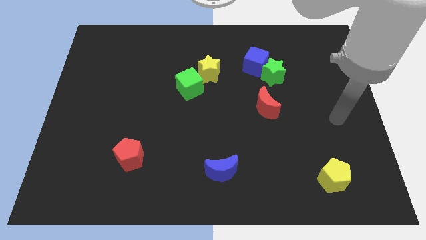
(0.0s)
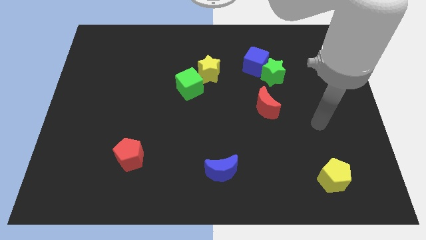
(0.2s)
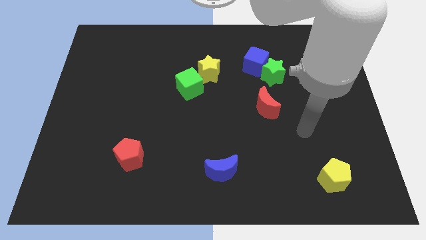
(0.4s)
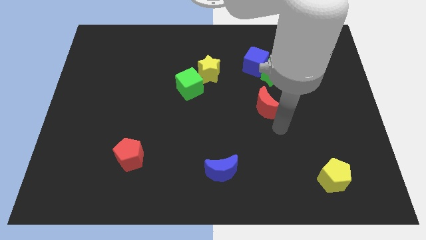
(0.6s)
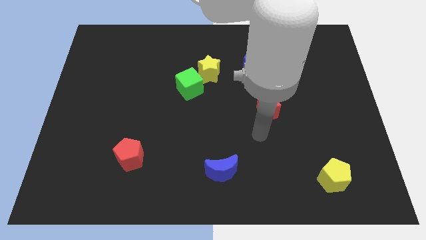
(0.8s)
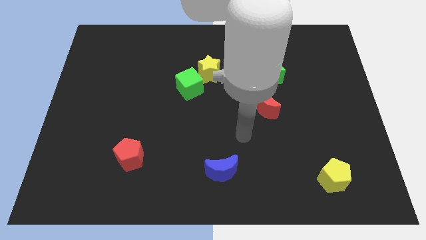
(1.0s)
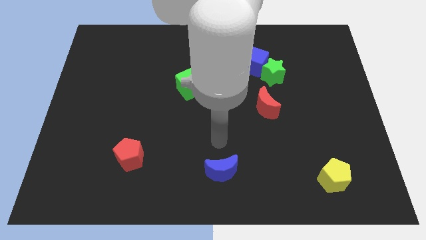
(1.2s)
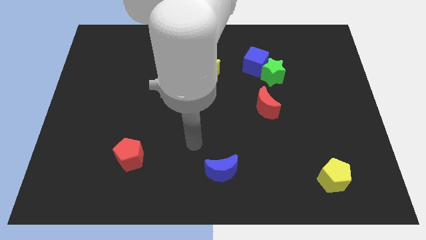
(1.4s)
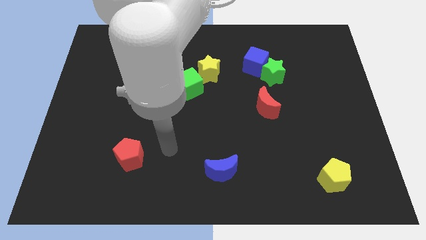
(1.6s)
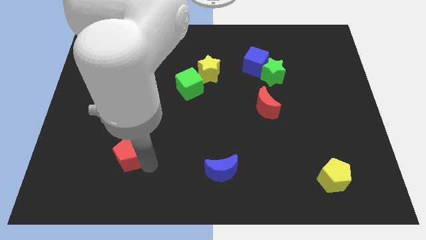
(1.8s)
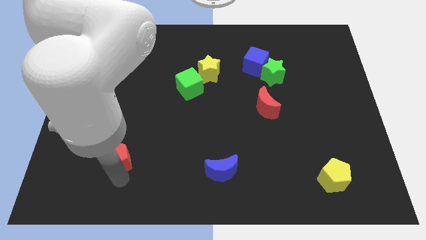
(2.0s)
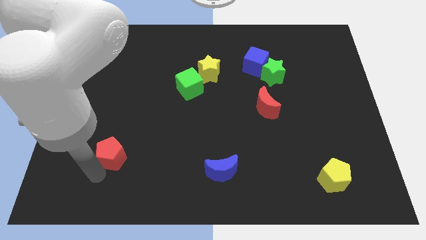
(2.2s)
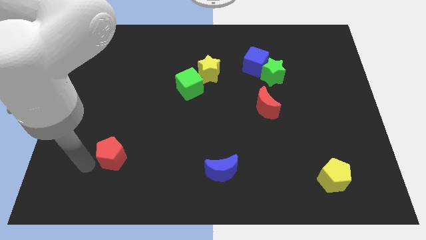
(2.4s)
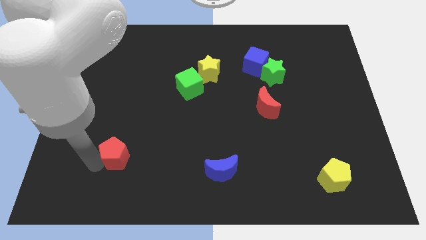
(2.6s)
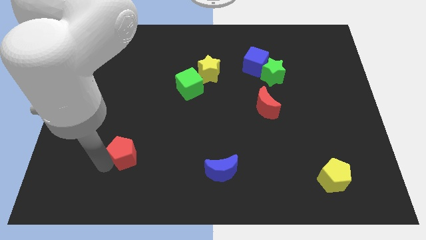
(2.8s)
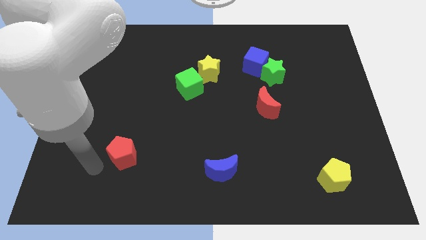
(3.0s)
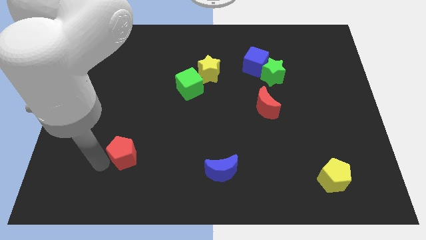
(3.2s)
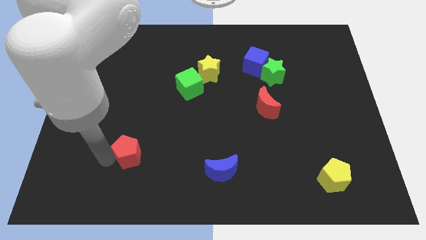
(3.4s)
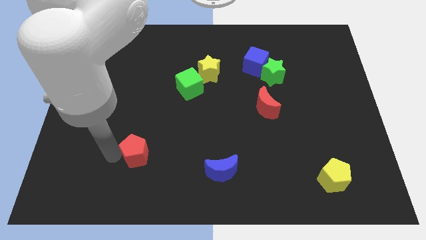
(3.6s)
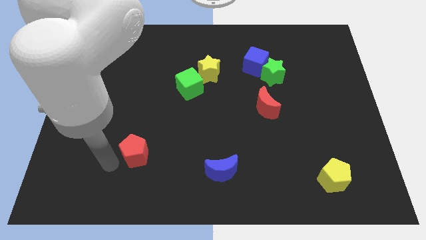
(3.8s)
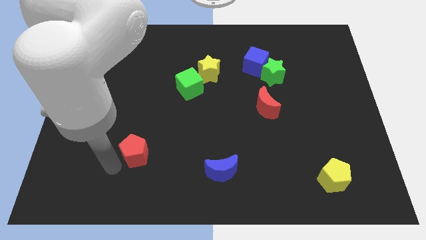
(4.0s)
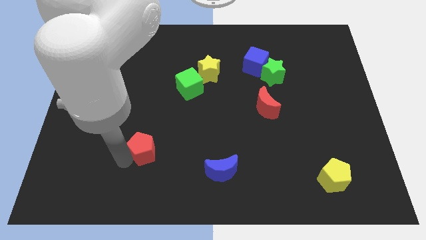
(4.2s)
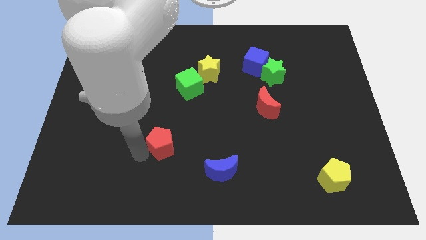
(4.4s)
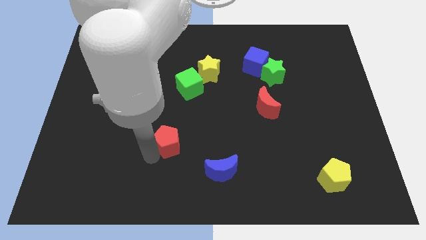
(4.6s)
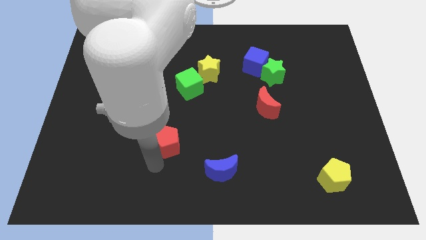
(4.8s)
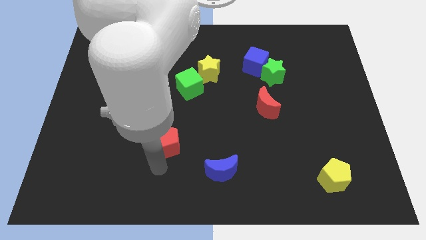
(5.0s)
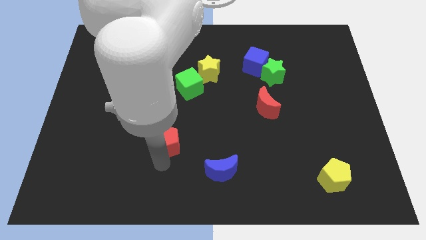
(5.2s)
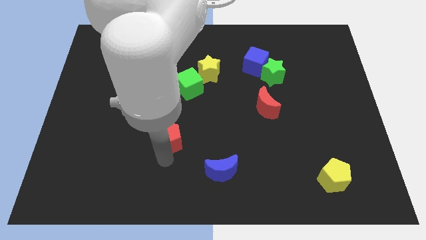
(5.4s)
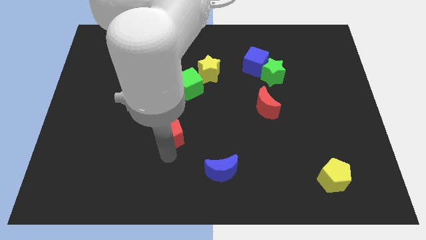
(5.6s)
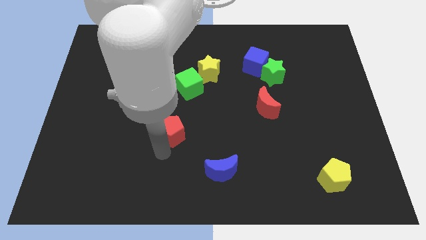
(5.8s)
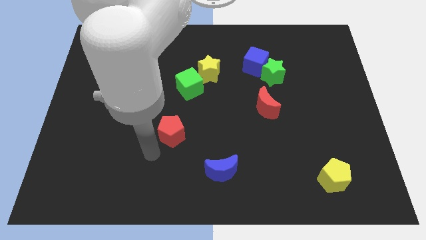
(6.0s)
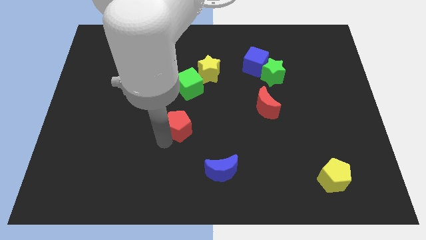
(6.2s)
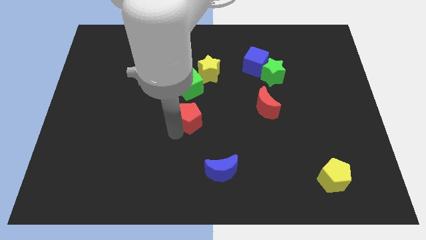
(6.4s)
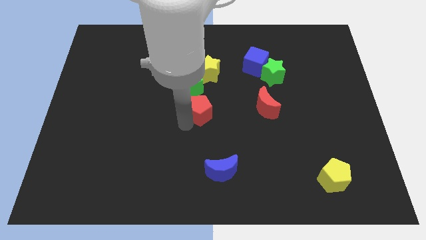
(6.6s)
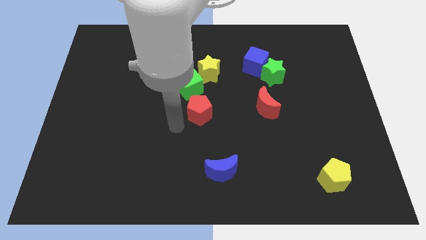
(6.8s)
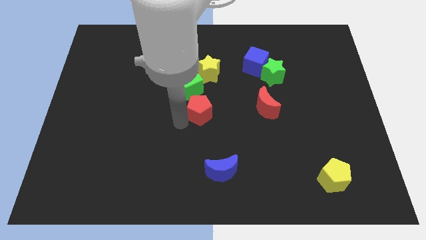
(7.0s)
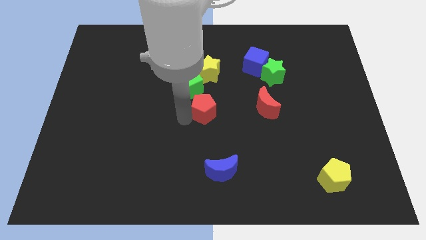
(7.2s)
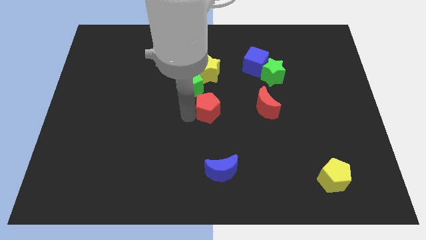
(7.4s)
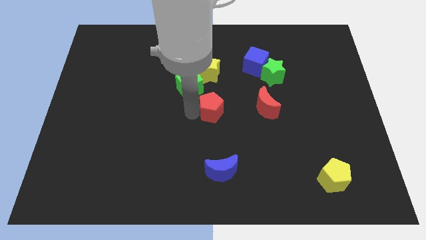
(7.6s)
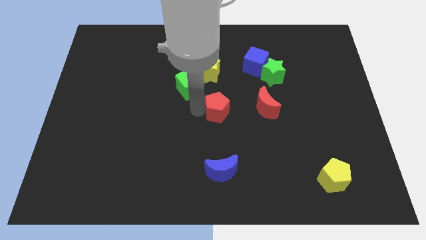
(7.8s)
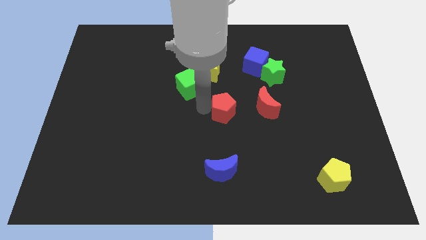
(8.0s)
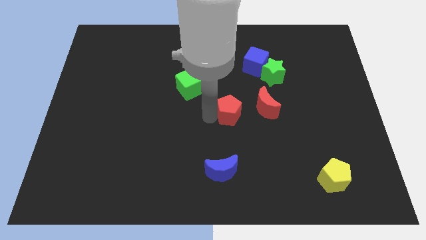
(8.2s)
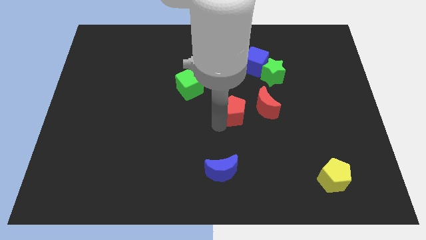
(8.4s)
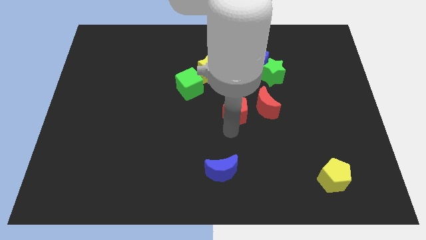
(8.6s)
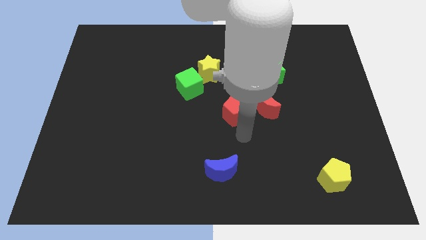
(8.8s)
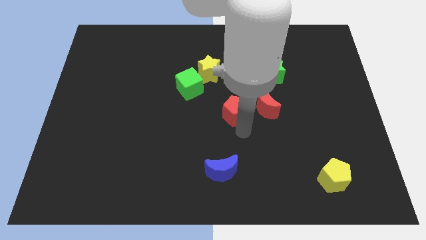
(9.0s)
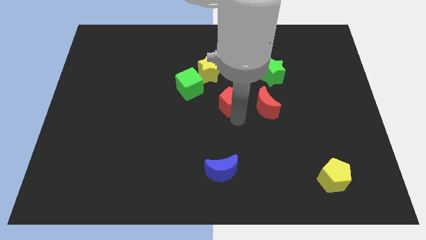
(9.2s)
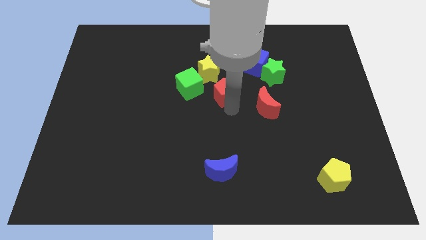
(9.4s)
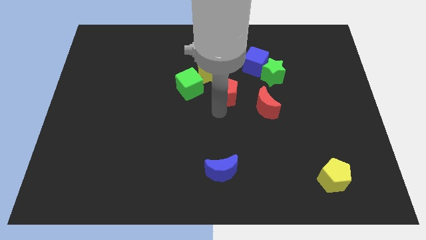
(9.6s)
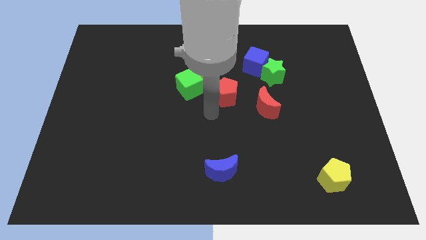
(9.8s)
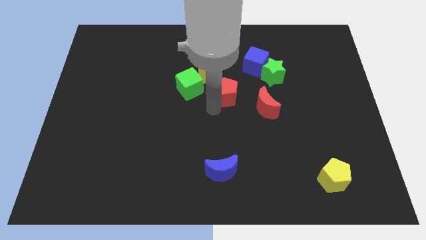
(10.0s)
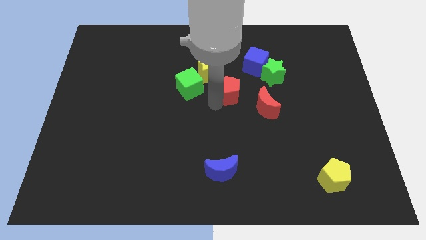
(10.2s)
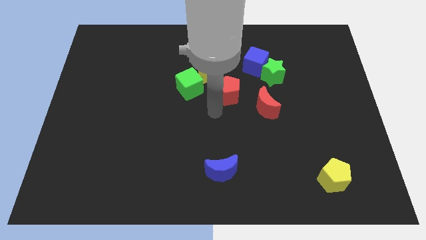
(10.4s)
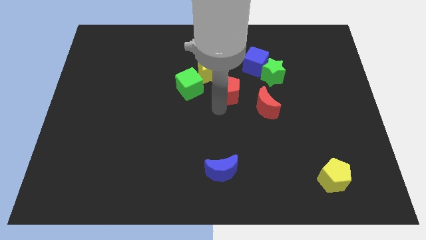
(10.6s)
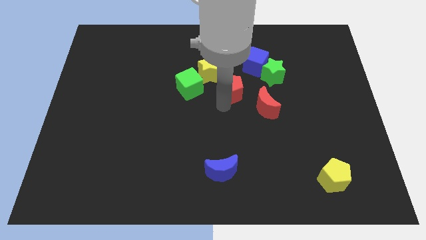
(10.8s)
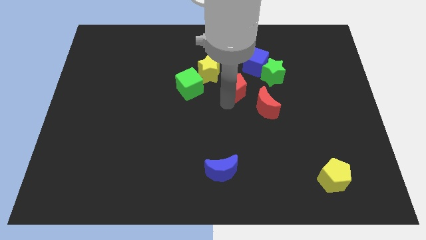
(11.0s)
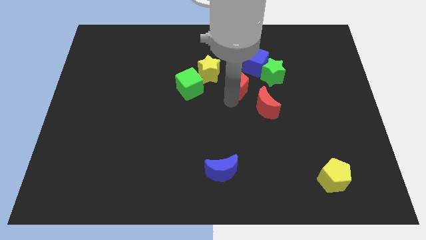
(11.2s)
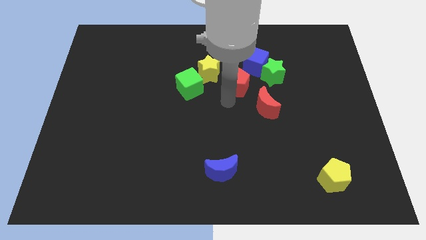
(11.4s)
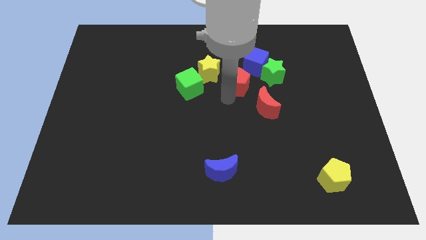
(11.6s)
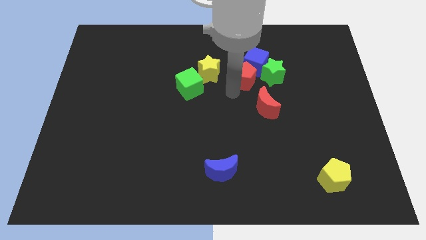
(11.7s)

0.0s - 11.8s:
slide the red pentagon to the blue cube

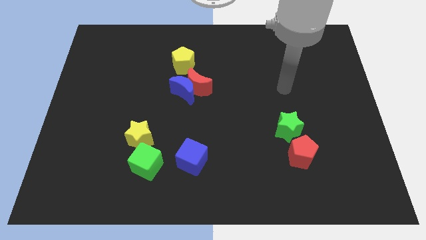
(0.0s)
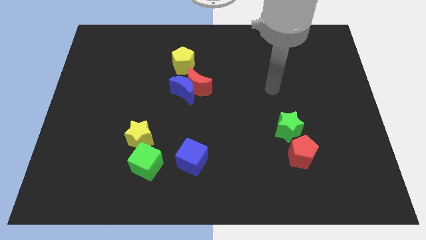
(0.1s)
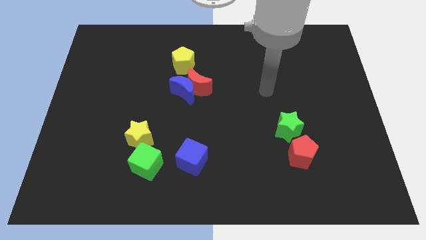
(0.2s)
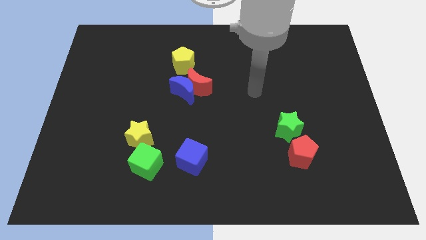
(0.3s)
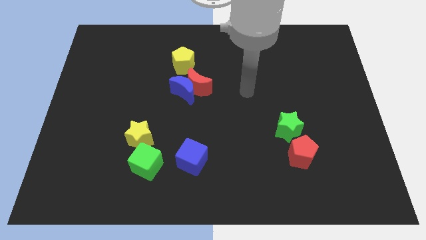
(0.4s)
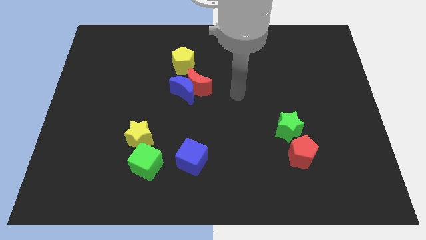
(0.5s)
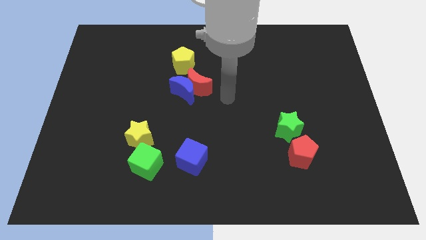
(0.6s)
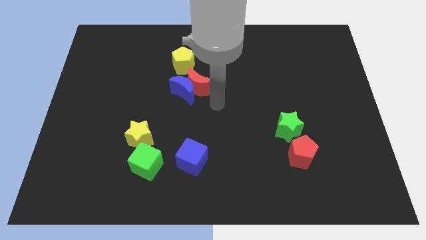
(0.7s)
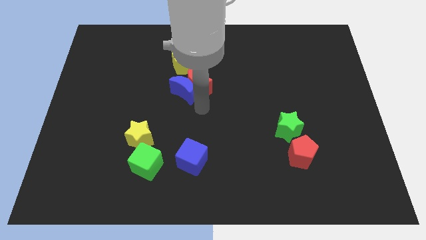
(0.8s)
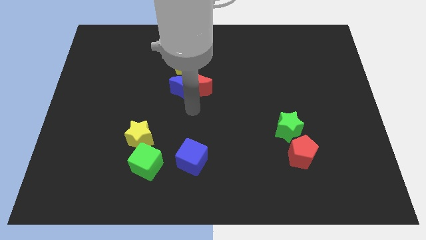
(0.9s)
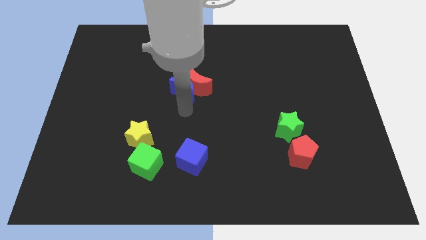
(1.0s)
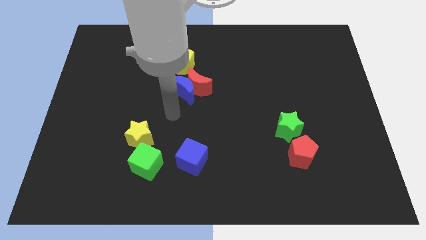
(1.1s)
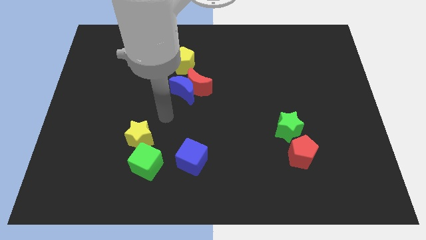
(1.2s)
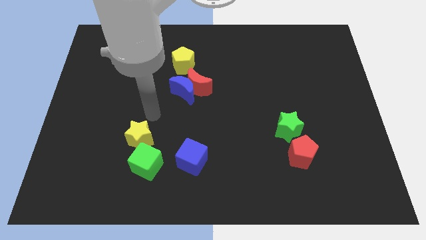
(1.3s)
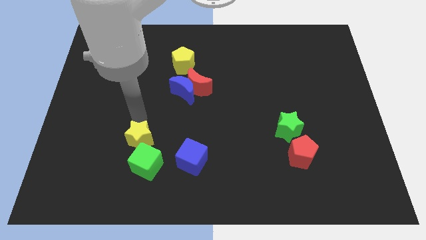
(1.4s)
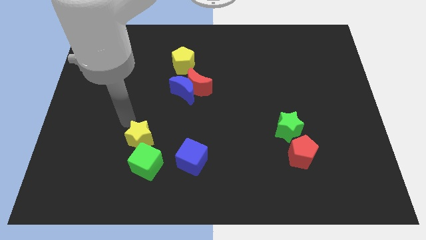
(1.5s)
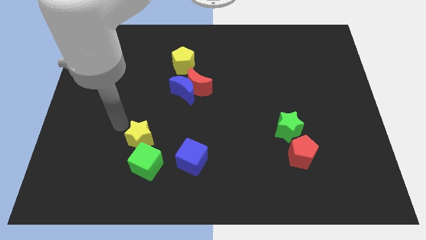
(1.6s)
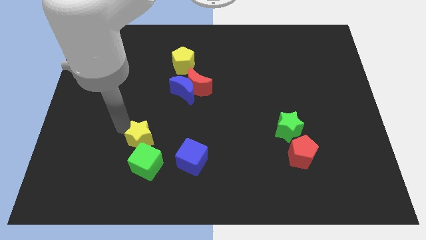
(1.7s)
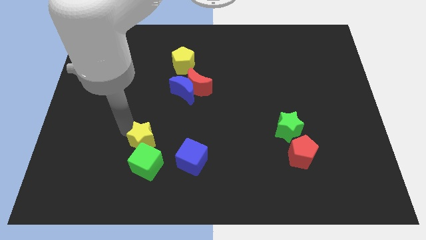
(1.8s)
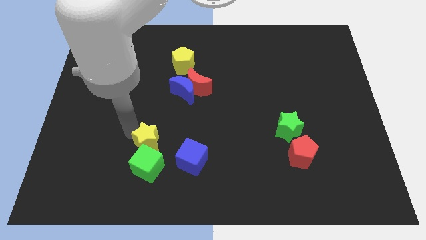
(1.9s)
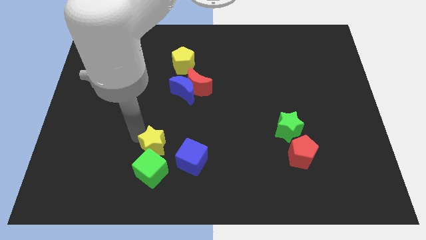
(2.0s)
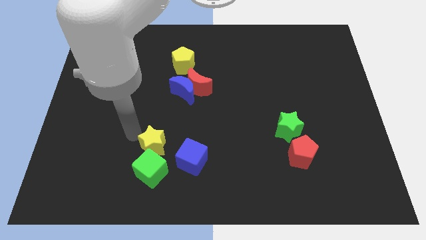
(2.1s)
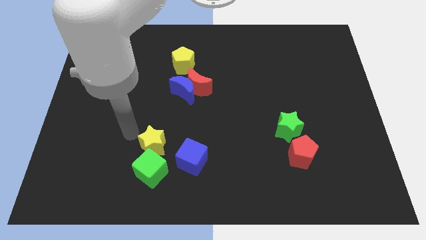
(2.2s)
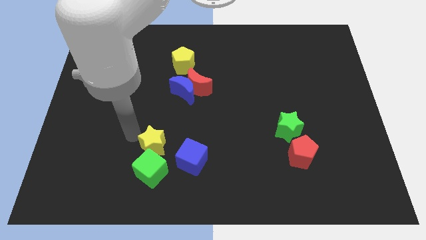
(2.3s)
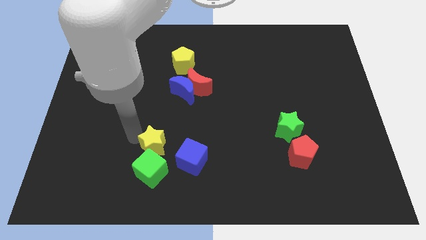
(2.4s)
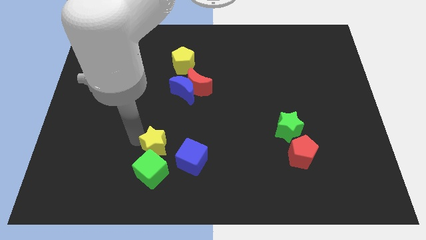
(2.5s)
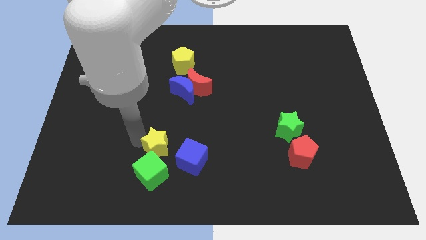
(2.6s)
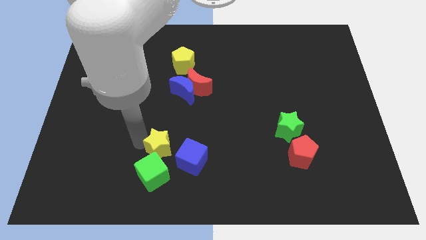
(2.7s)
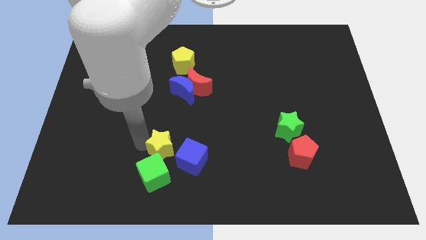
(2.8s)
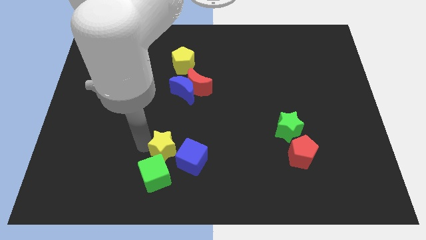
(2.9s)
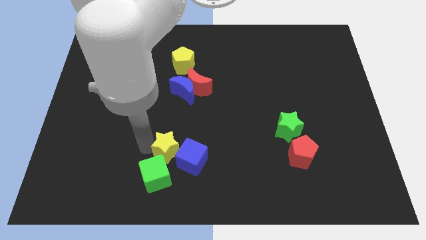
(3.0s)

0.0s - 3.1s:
slide the yellow star to the blue cube
